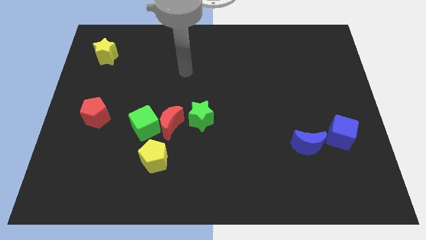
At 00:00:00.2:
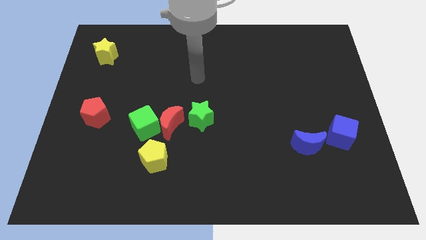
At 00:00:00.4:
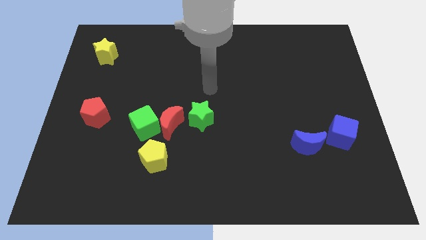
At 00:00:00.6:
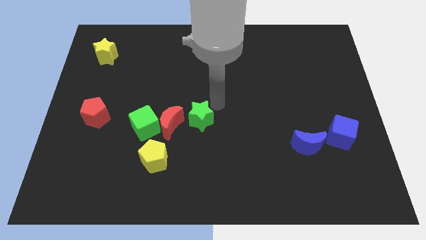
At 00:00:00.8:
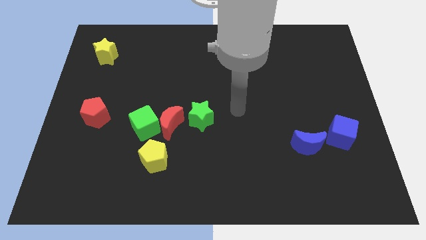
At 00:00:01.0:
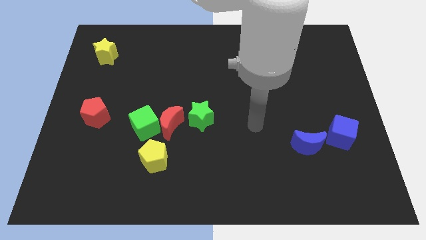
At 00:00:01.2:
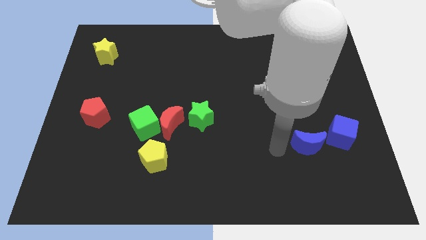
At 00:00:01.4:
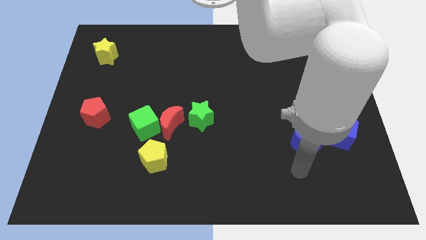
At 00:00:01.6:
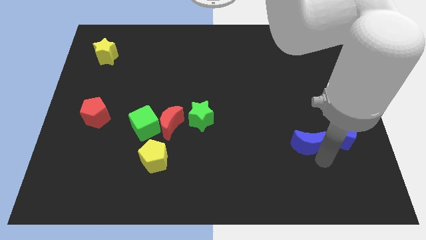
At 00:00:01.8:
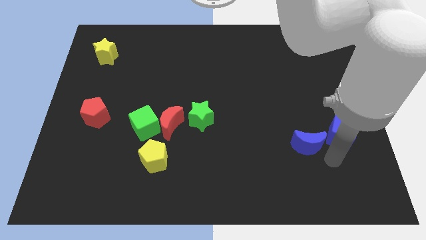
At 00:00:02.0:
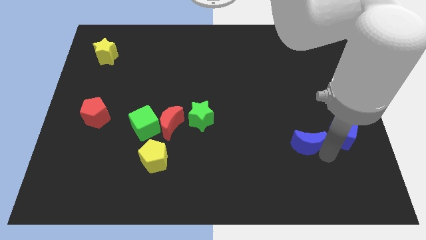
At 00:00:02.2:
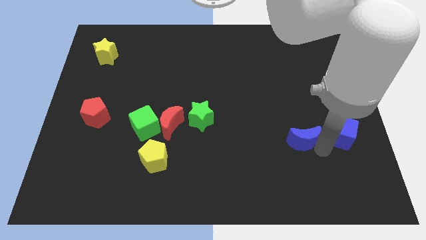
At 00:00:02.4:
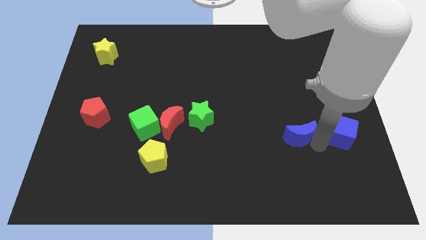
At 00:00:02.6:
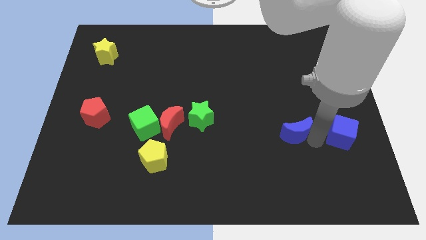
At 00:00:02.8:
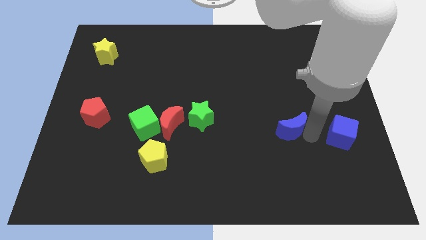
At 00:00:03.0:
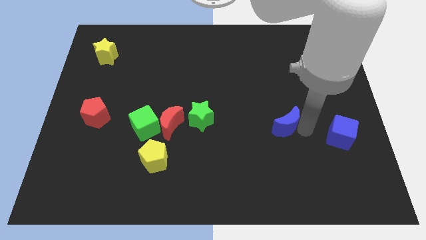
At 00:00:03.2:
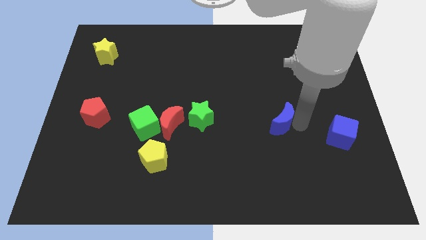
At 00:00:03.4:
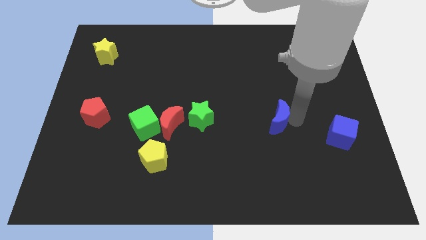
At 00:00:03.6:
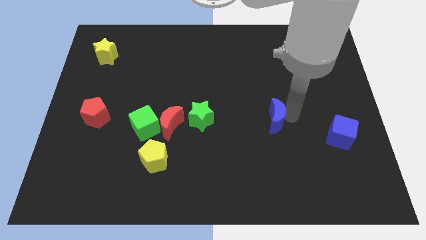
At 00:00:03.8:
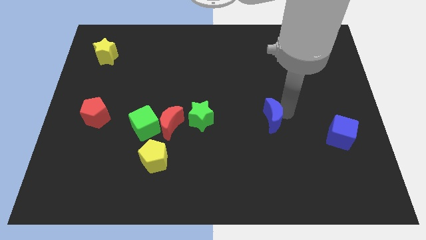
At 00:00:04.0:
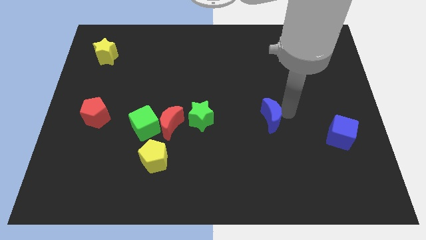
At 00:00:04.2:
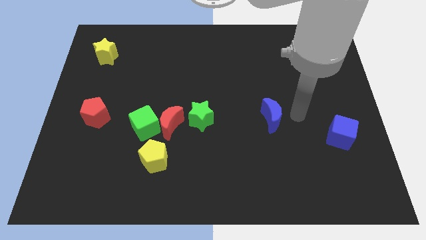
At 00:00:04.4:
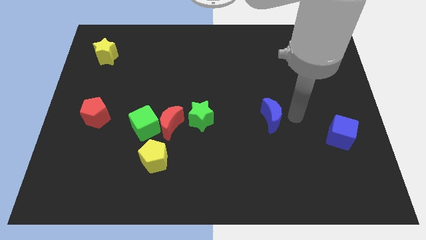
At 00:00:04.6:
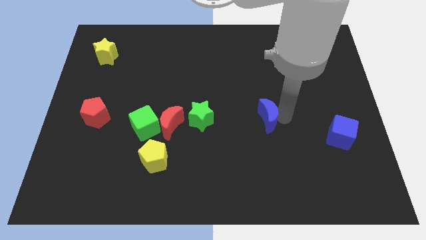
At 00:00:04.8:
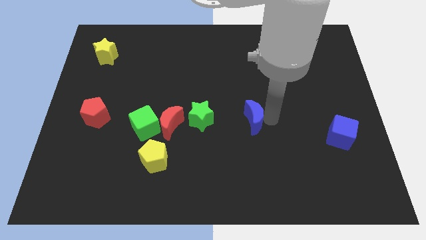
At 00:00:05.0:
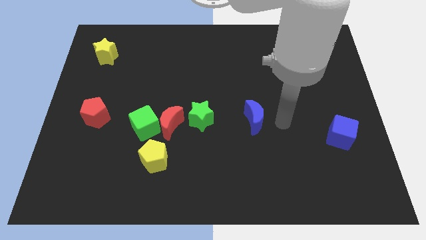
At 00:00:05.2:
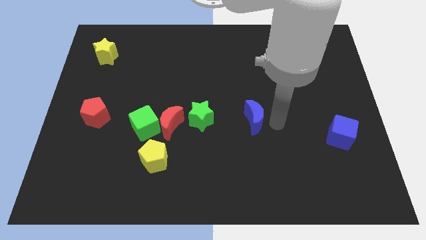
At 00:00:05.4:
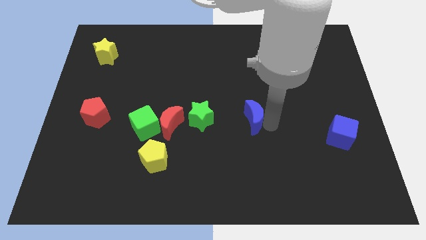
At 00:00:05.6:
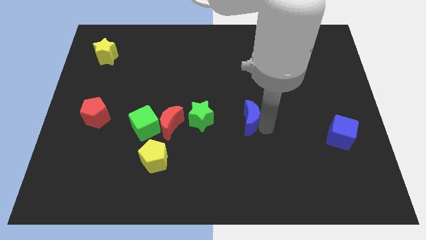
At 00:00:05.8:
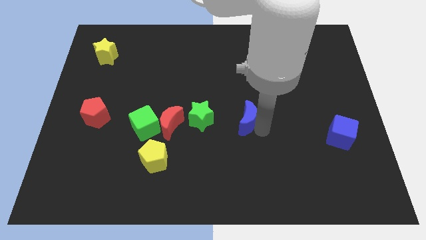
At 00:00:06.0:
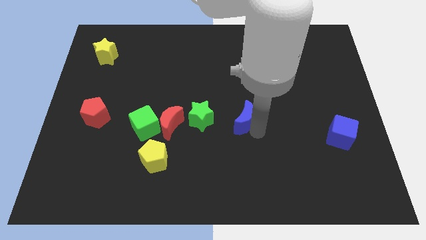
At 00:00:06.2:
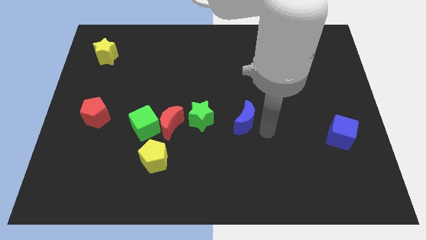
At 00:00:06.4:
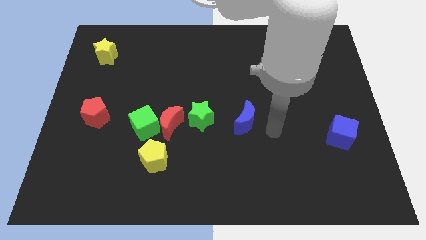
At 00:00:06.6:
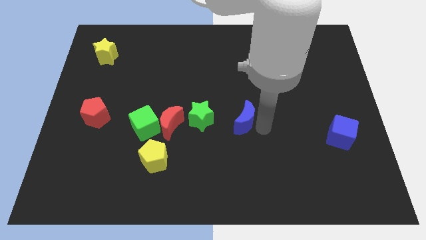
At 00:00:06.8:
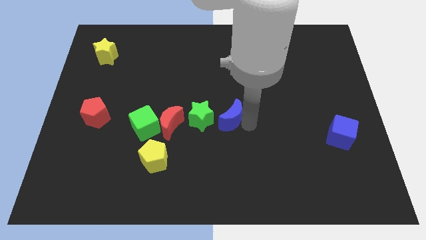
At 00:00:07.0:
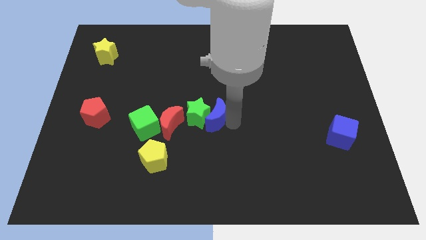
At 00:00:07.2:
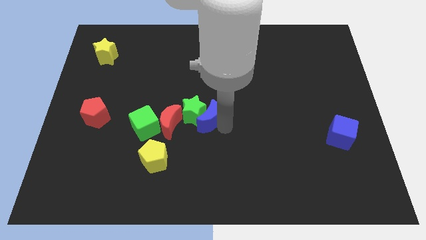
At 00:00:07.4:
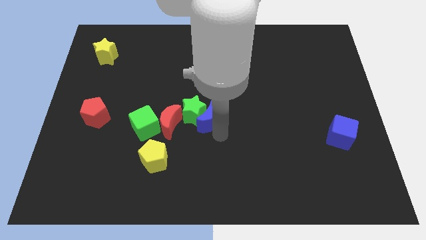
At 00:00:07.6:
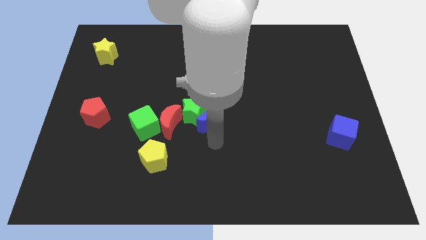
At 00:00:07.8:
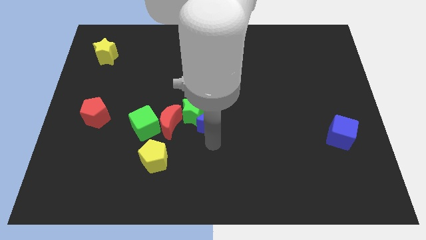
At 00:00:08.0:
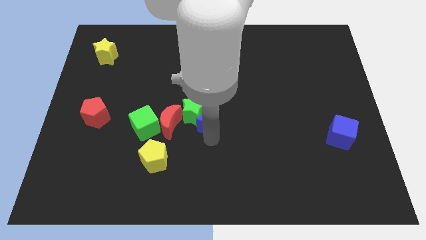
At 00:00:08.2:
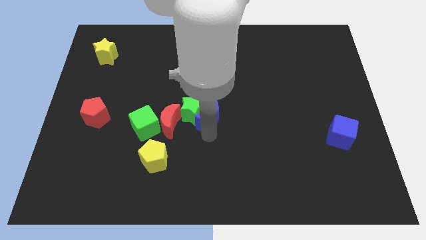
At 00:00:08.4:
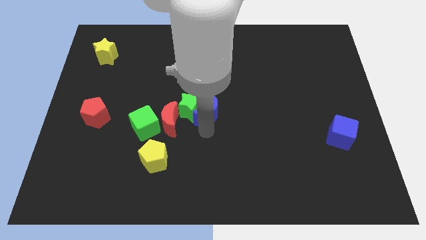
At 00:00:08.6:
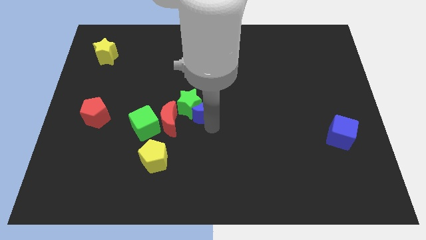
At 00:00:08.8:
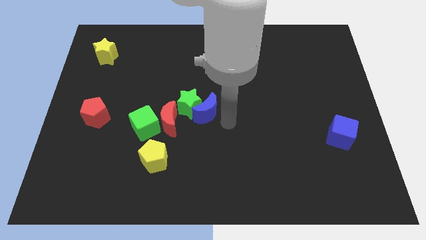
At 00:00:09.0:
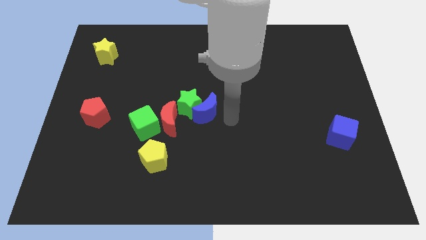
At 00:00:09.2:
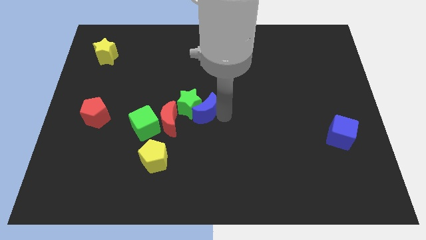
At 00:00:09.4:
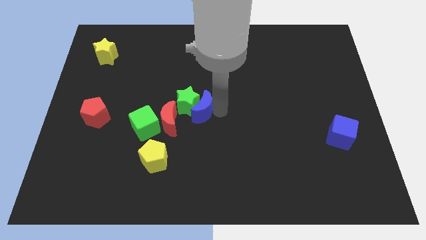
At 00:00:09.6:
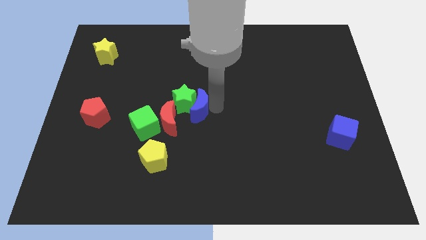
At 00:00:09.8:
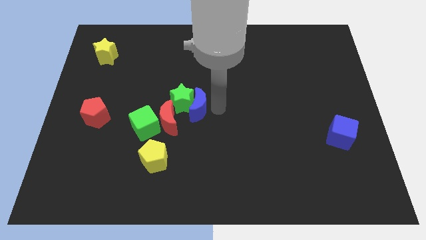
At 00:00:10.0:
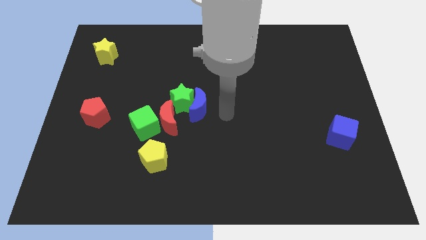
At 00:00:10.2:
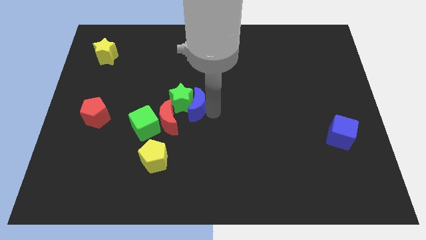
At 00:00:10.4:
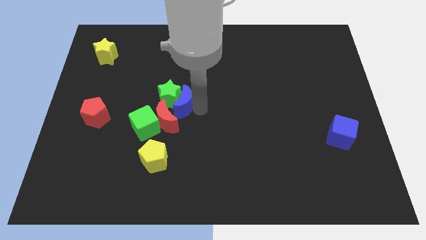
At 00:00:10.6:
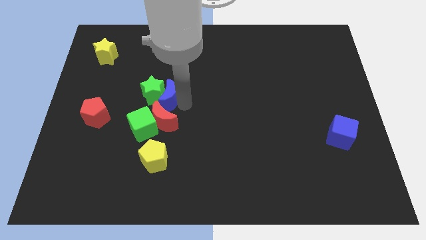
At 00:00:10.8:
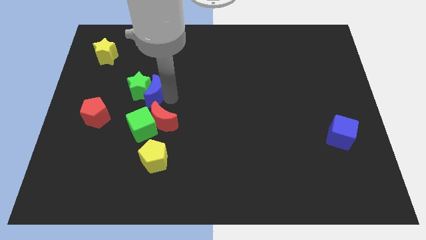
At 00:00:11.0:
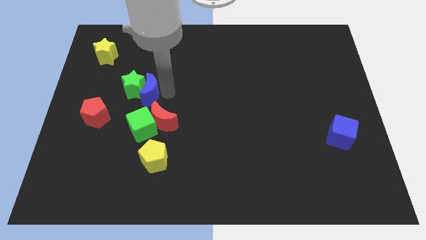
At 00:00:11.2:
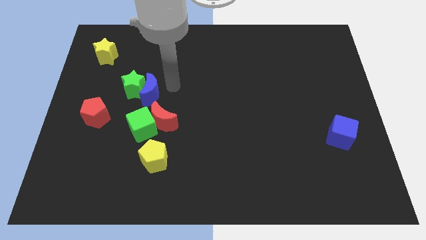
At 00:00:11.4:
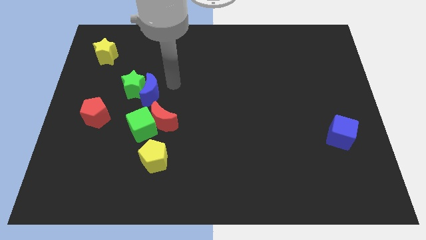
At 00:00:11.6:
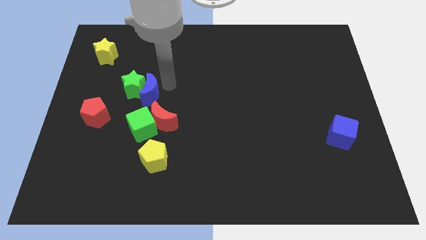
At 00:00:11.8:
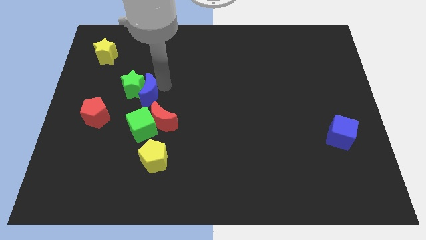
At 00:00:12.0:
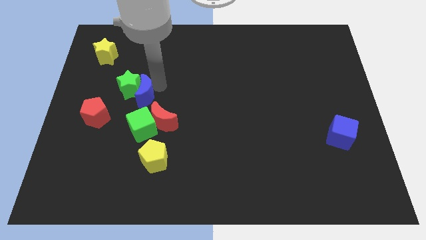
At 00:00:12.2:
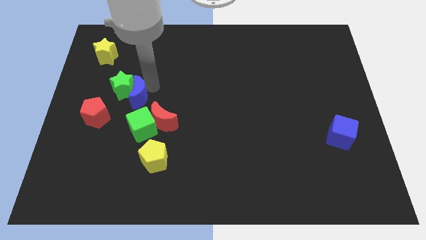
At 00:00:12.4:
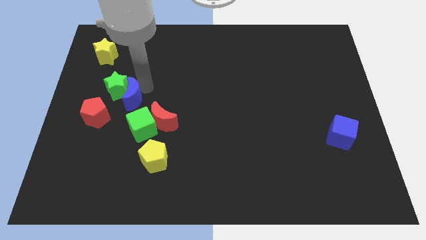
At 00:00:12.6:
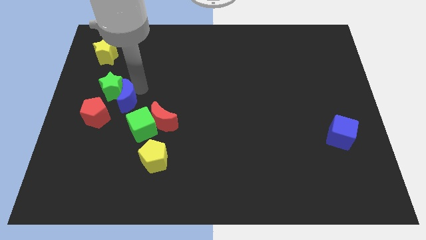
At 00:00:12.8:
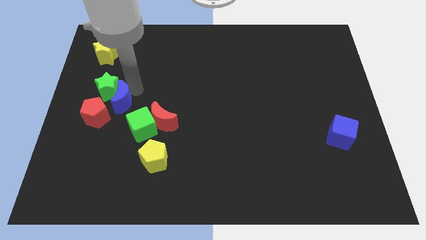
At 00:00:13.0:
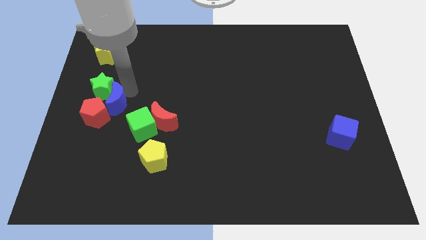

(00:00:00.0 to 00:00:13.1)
move the blue moon to the red pentagon
